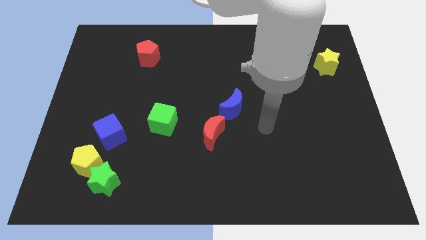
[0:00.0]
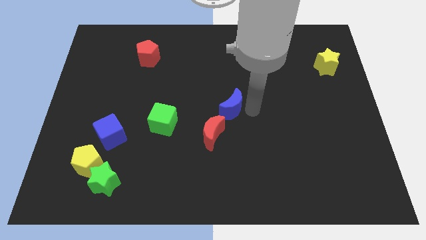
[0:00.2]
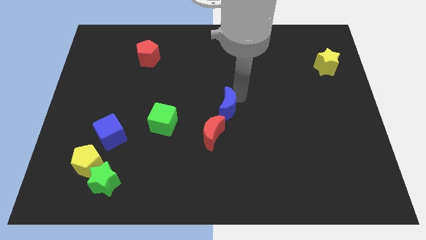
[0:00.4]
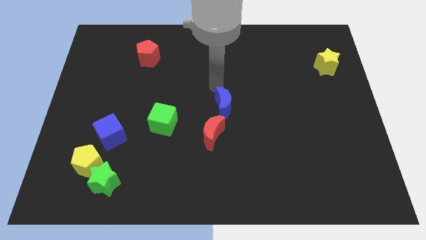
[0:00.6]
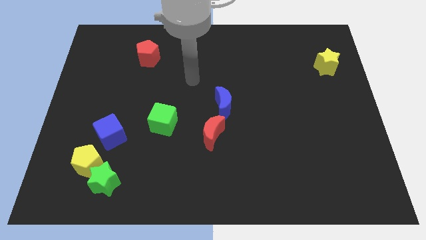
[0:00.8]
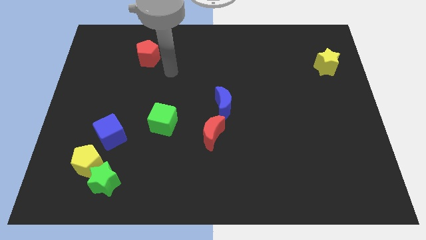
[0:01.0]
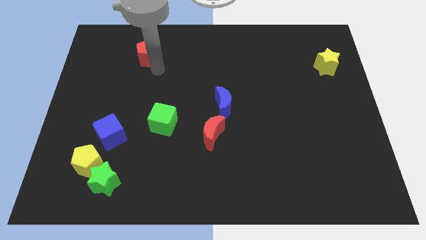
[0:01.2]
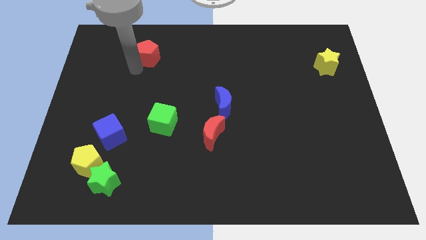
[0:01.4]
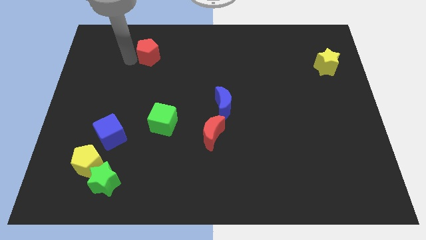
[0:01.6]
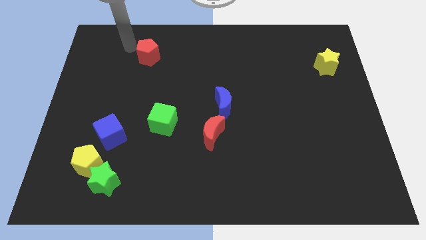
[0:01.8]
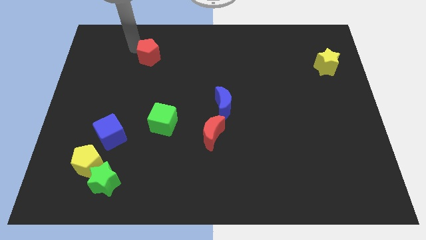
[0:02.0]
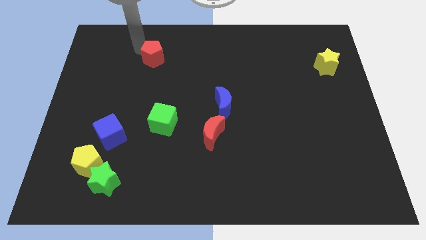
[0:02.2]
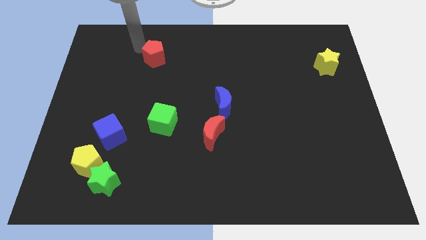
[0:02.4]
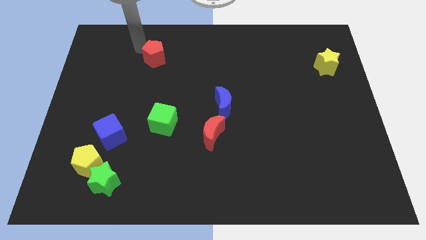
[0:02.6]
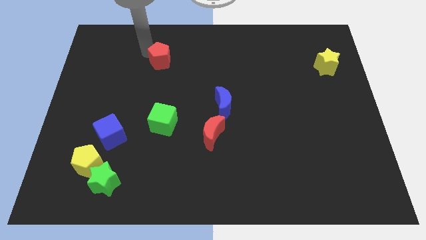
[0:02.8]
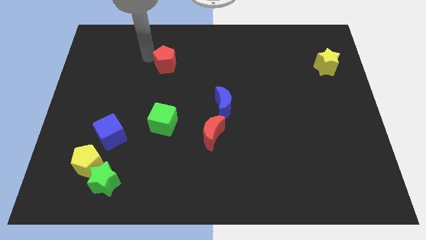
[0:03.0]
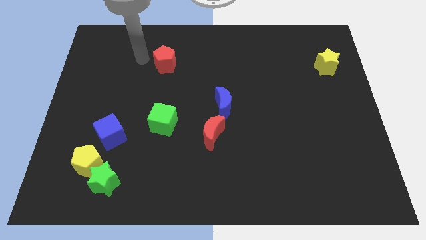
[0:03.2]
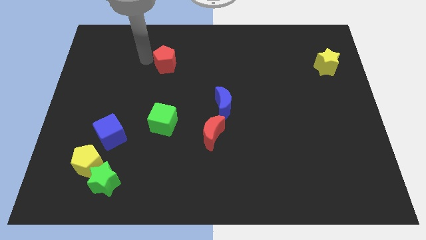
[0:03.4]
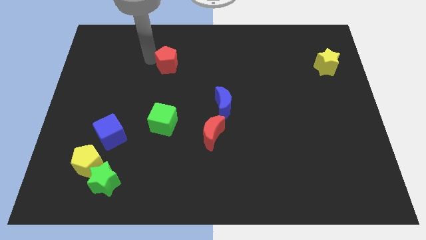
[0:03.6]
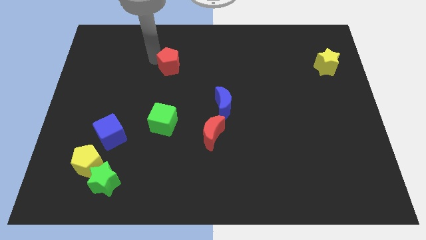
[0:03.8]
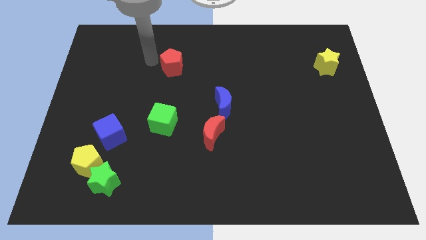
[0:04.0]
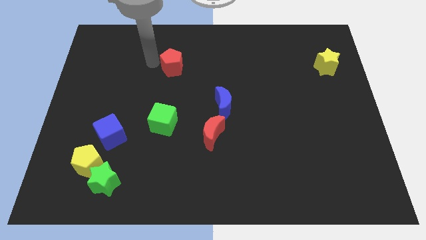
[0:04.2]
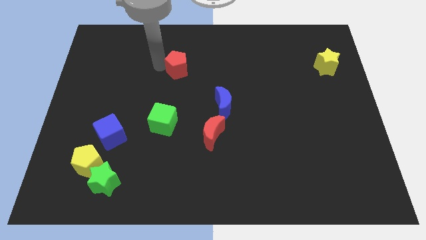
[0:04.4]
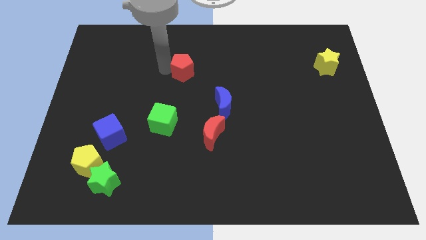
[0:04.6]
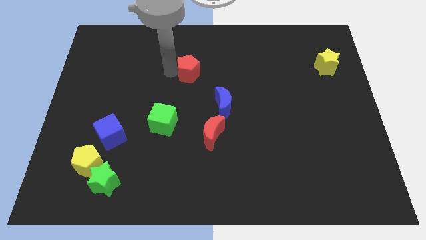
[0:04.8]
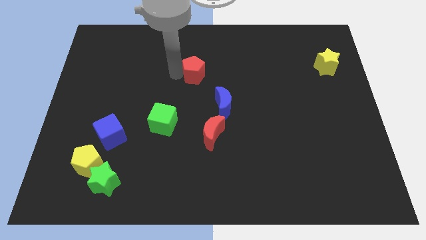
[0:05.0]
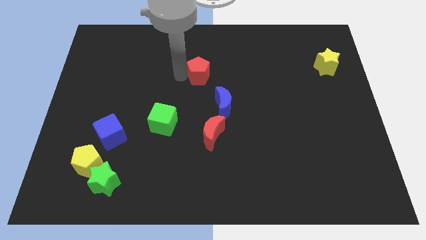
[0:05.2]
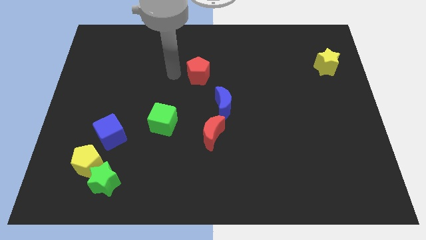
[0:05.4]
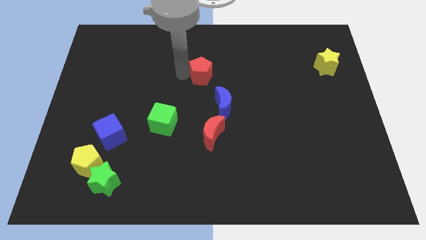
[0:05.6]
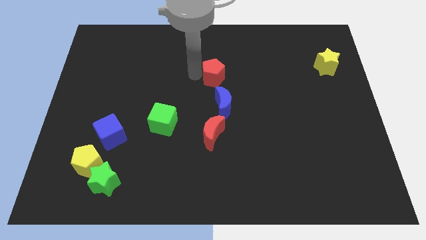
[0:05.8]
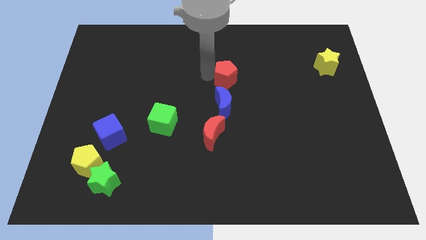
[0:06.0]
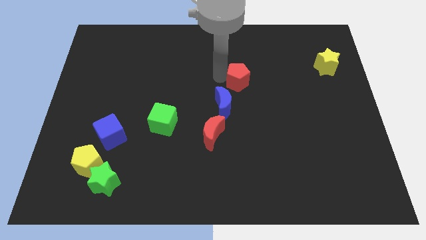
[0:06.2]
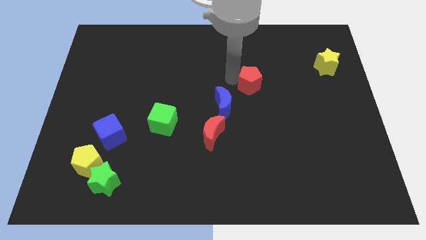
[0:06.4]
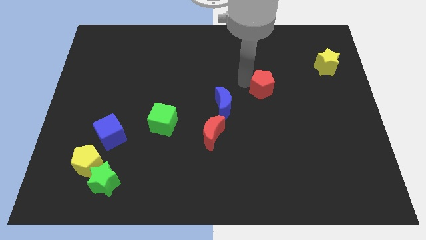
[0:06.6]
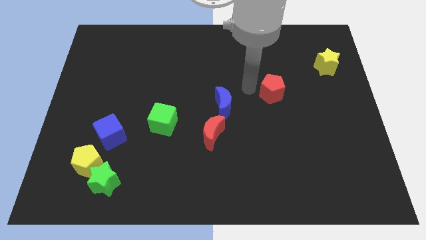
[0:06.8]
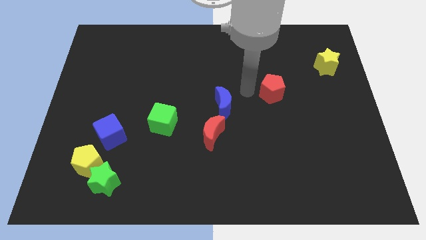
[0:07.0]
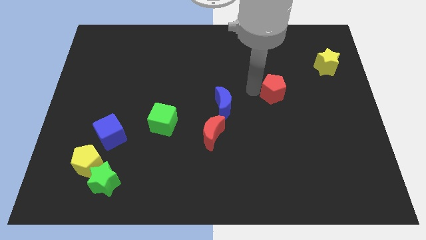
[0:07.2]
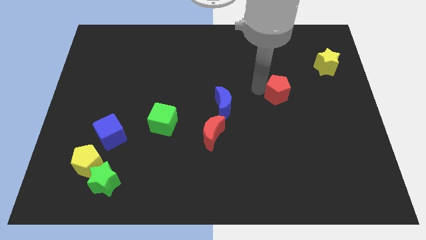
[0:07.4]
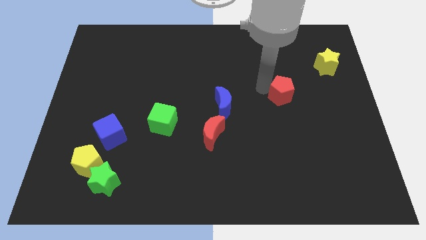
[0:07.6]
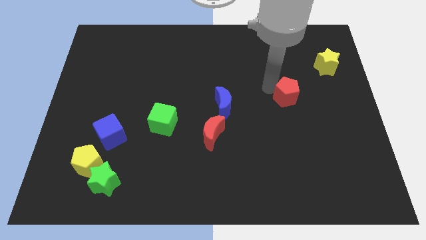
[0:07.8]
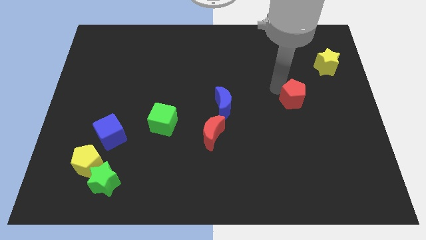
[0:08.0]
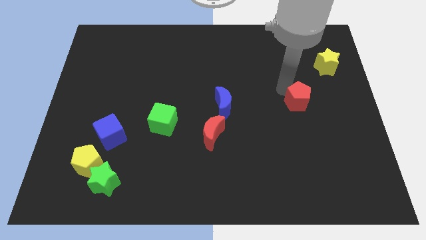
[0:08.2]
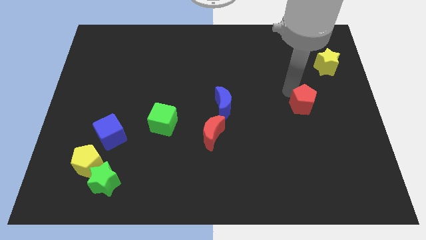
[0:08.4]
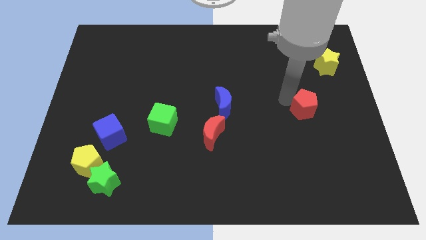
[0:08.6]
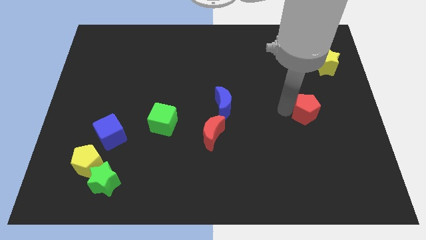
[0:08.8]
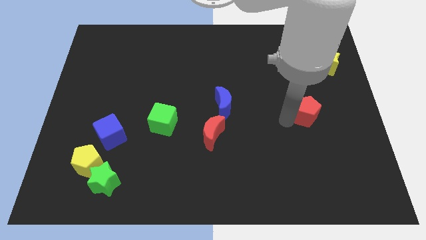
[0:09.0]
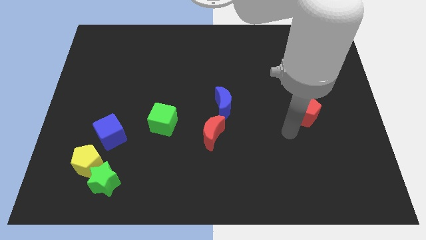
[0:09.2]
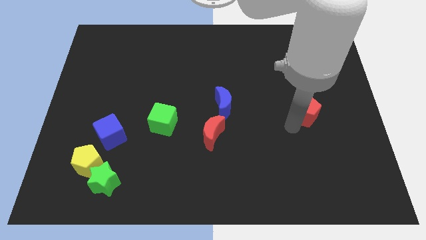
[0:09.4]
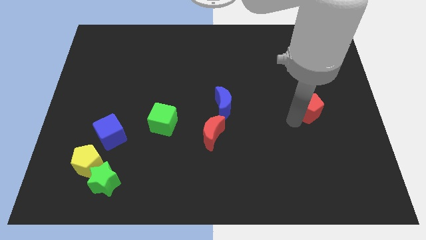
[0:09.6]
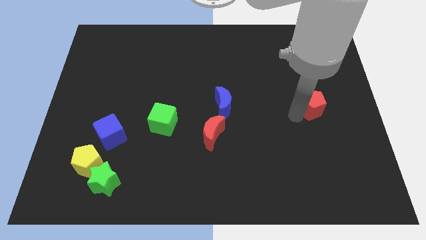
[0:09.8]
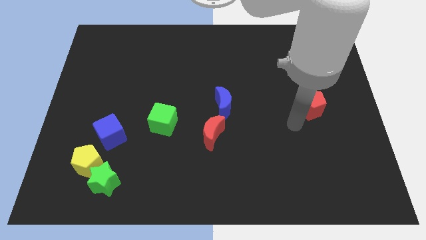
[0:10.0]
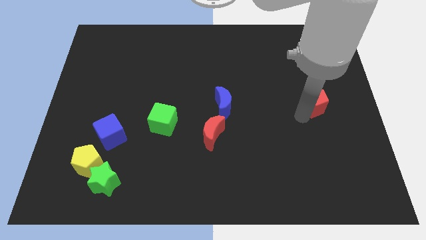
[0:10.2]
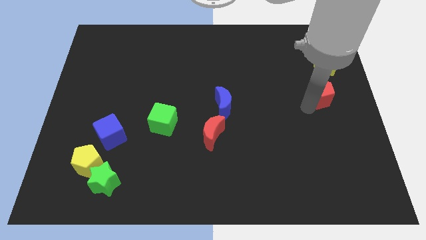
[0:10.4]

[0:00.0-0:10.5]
move the red pentagon to the center right
